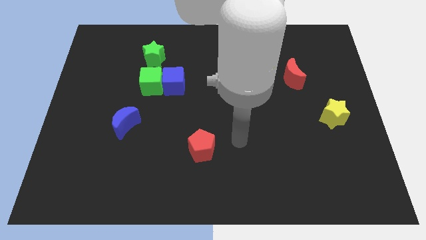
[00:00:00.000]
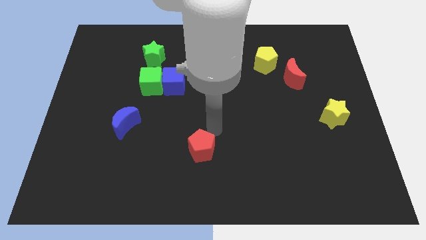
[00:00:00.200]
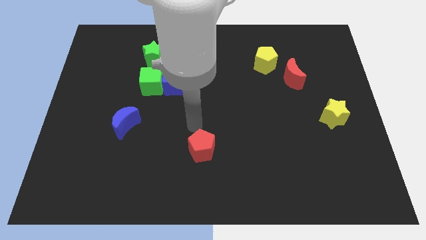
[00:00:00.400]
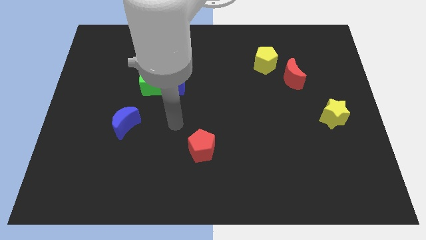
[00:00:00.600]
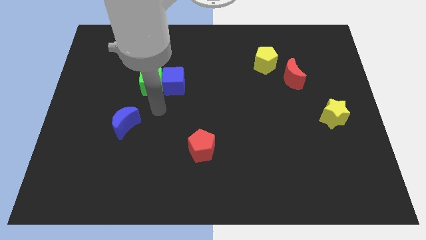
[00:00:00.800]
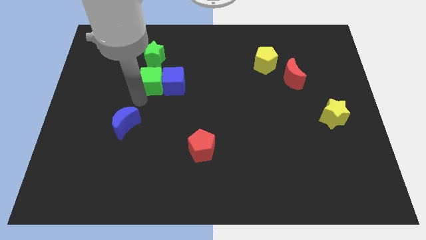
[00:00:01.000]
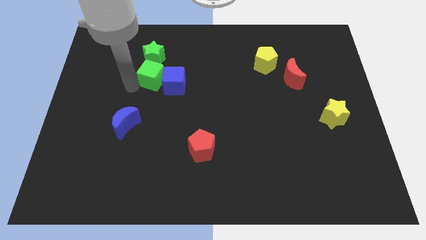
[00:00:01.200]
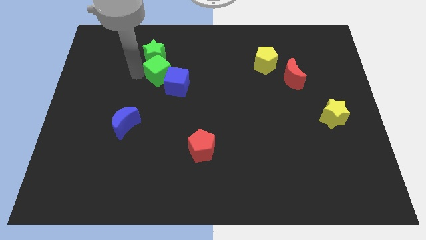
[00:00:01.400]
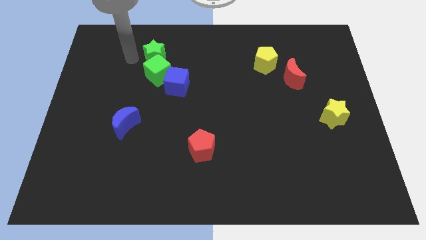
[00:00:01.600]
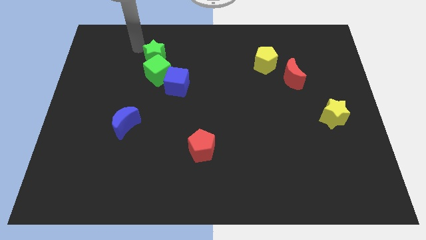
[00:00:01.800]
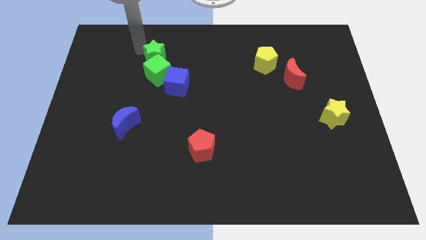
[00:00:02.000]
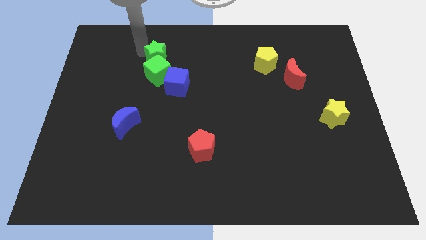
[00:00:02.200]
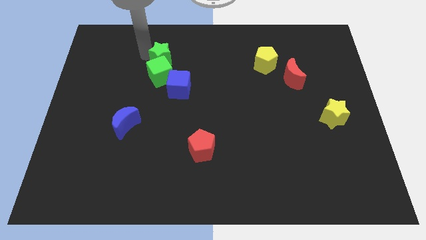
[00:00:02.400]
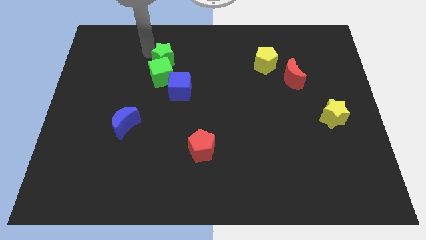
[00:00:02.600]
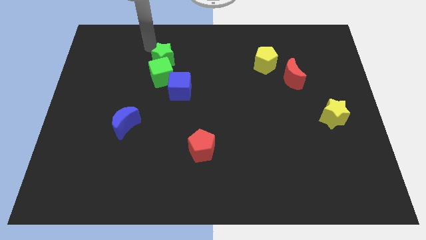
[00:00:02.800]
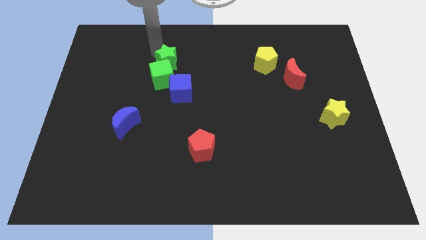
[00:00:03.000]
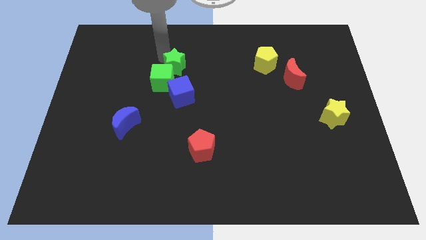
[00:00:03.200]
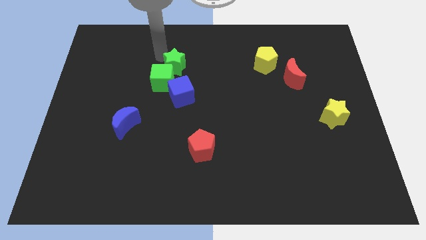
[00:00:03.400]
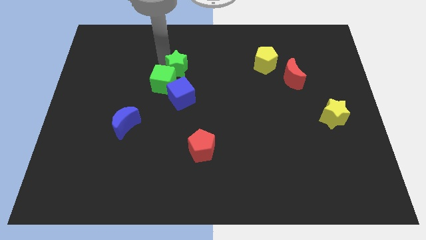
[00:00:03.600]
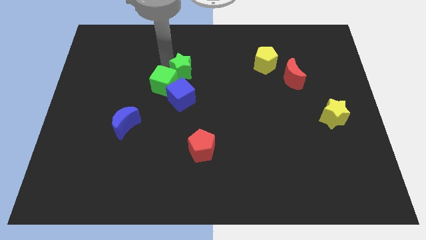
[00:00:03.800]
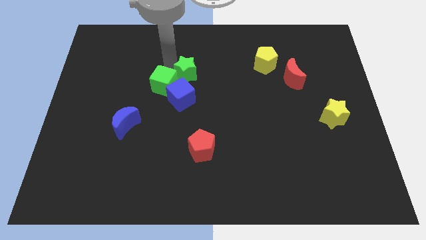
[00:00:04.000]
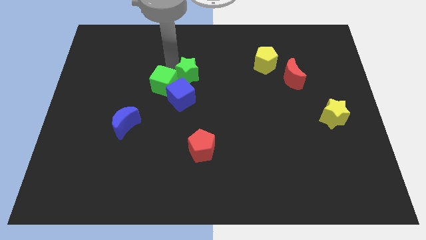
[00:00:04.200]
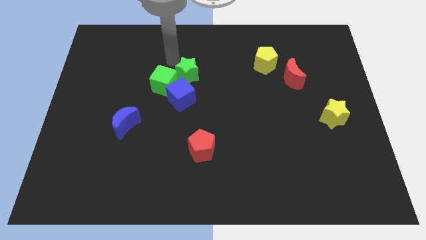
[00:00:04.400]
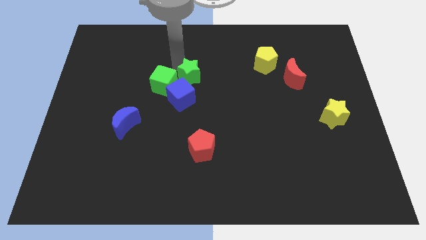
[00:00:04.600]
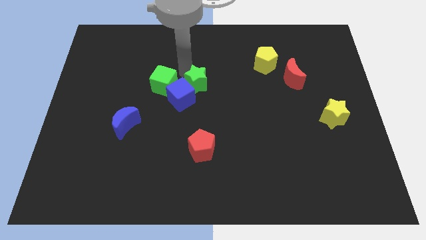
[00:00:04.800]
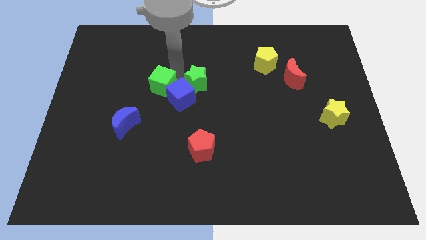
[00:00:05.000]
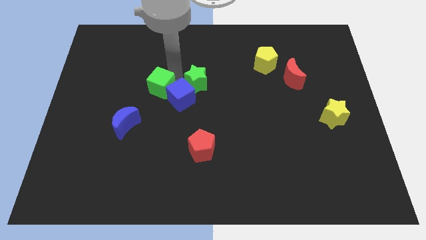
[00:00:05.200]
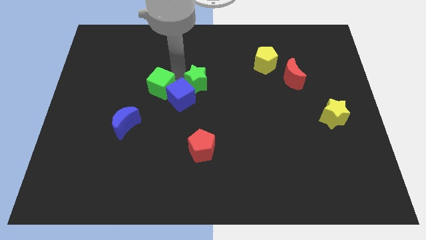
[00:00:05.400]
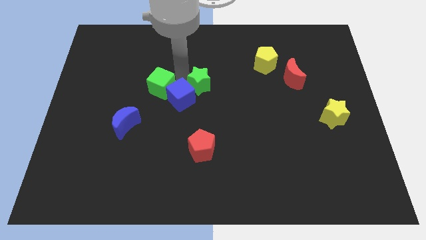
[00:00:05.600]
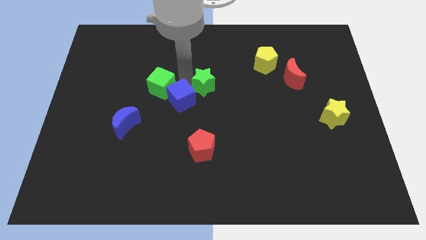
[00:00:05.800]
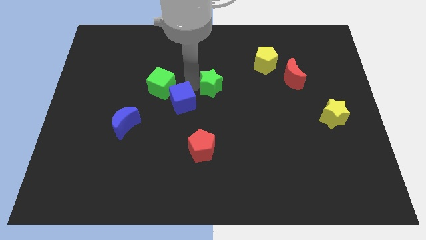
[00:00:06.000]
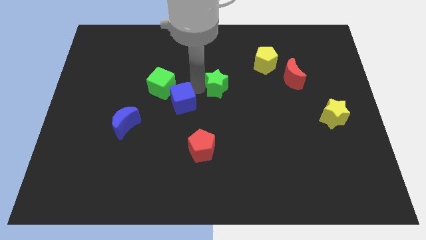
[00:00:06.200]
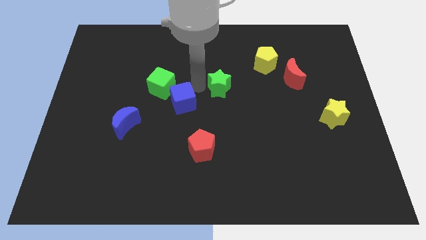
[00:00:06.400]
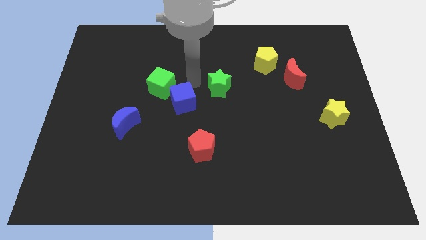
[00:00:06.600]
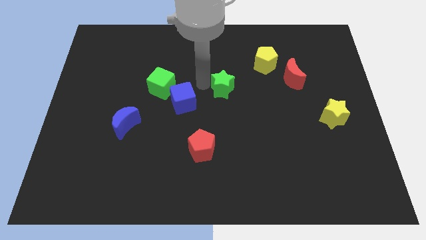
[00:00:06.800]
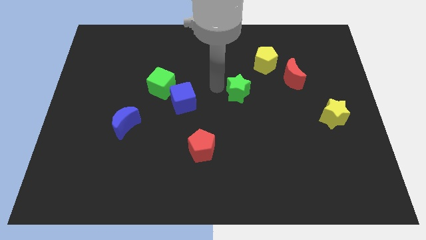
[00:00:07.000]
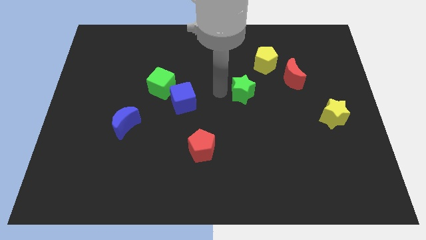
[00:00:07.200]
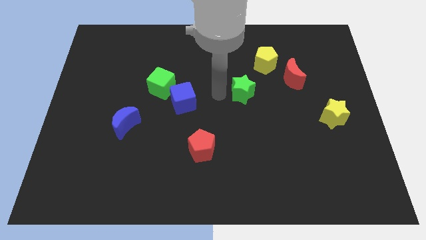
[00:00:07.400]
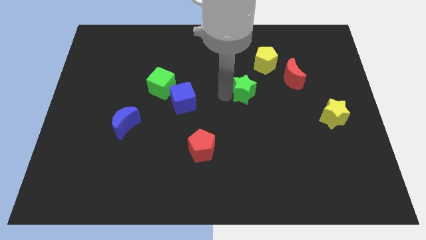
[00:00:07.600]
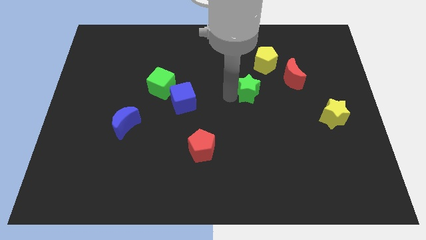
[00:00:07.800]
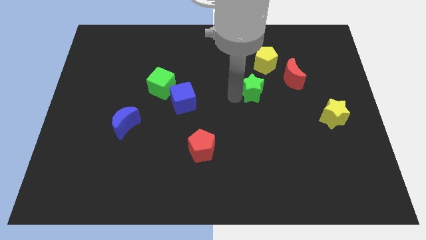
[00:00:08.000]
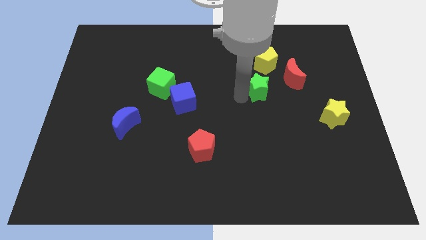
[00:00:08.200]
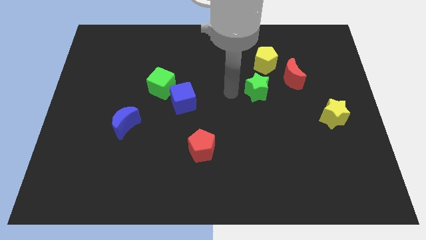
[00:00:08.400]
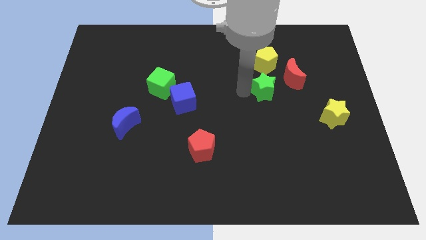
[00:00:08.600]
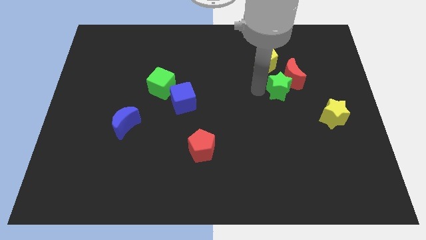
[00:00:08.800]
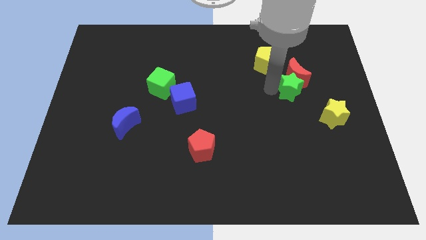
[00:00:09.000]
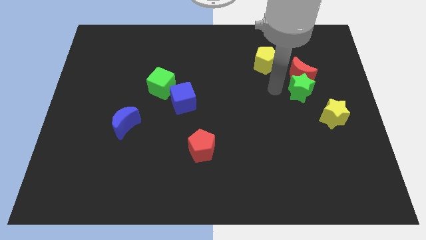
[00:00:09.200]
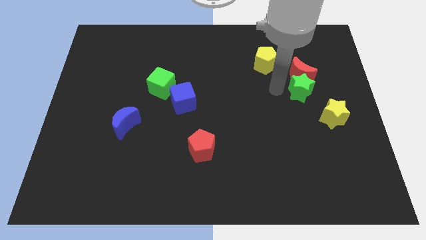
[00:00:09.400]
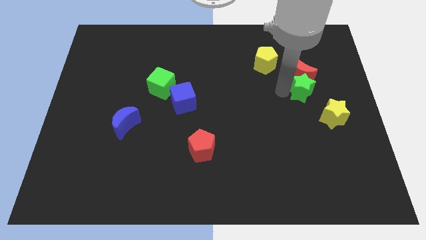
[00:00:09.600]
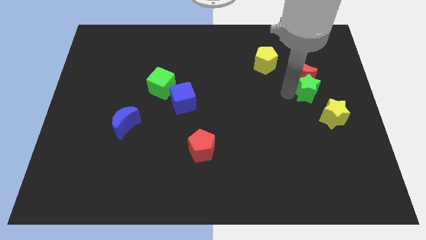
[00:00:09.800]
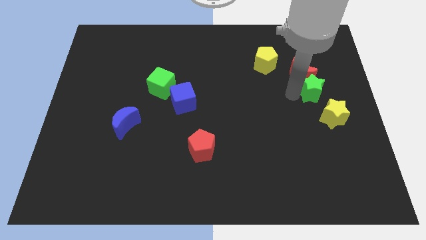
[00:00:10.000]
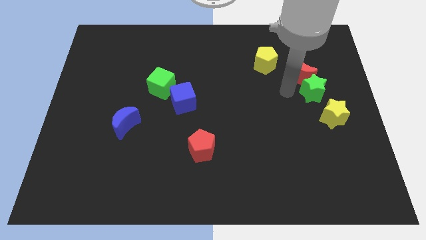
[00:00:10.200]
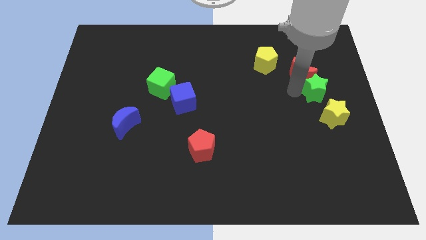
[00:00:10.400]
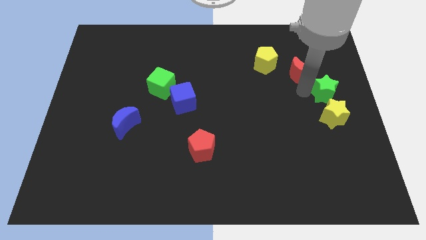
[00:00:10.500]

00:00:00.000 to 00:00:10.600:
move the green star to the center right

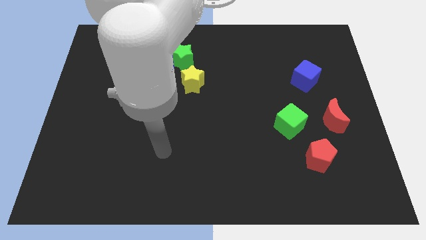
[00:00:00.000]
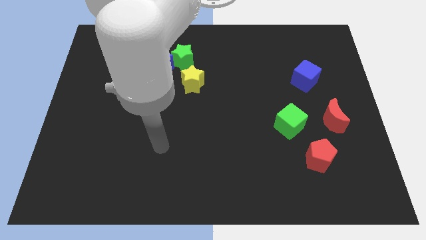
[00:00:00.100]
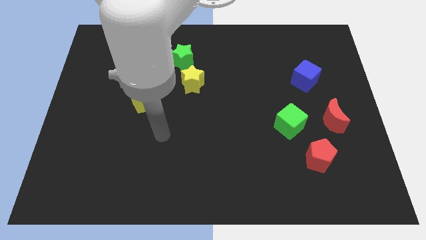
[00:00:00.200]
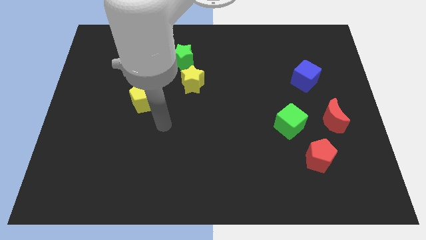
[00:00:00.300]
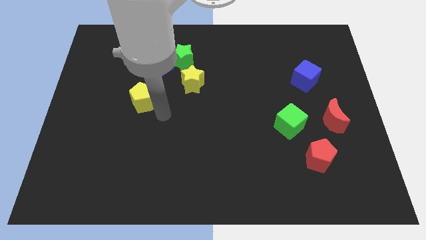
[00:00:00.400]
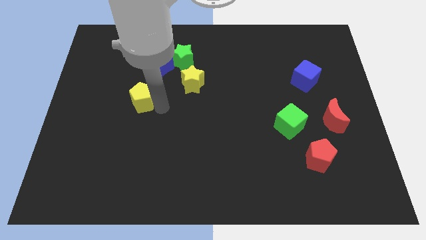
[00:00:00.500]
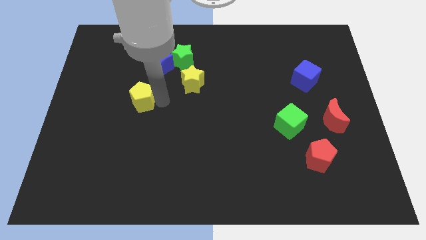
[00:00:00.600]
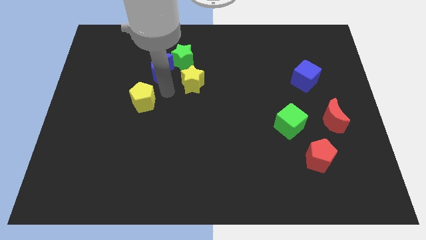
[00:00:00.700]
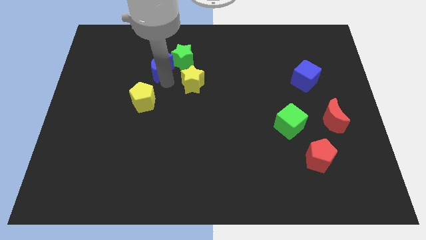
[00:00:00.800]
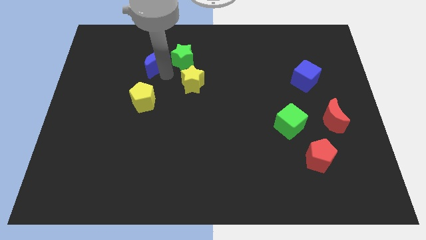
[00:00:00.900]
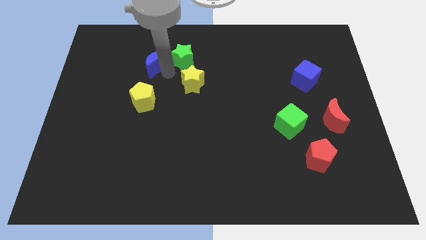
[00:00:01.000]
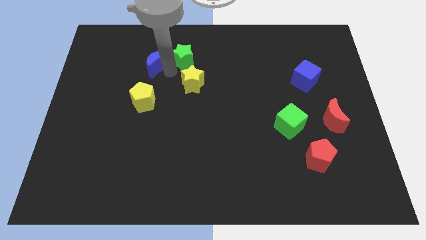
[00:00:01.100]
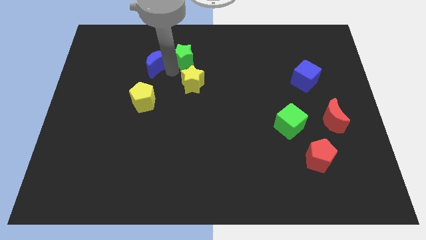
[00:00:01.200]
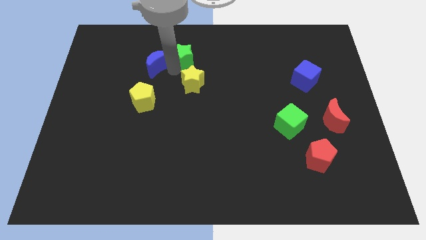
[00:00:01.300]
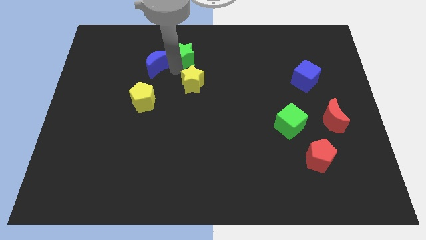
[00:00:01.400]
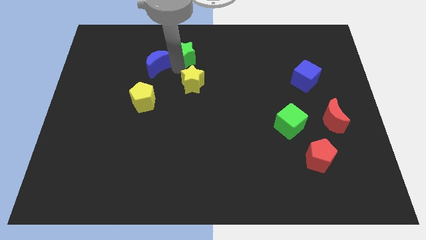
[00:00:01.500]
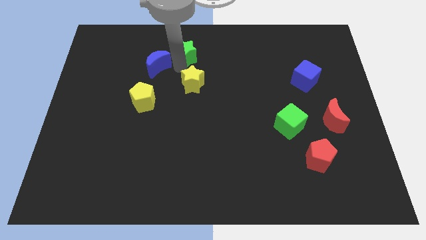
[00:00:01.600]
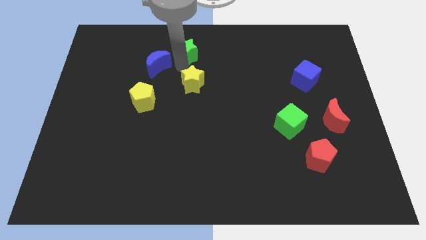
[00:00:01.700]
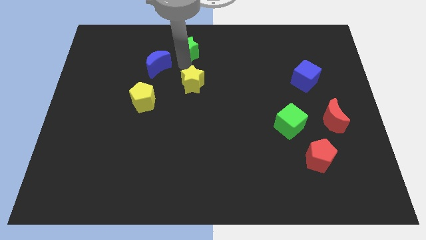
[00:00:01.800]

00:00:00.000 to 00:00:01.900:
put the green star to the top side
